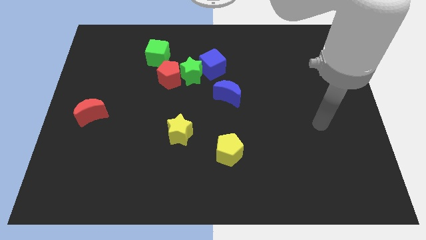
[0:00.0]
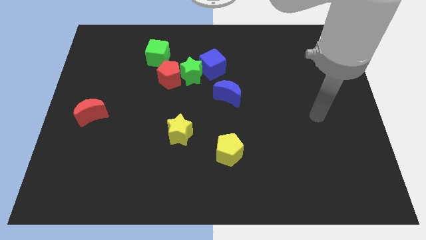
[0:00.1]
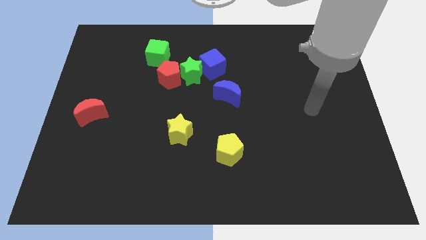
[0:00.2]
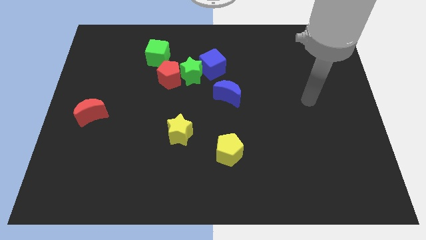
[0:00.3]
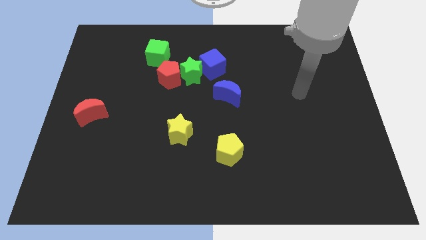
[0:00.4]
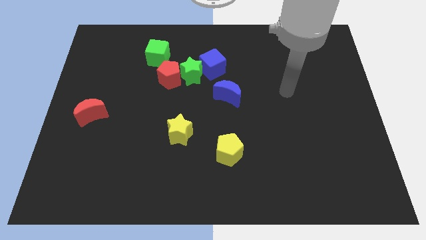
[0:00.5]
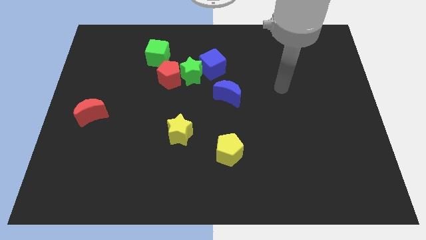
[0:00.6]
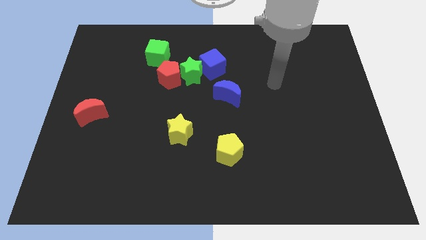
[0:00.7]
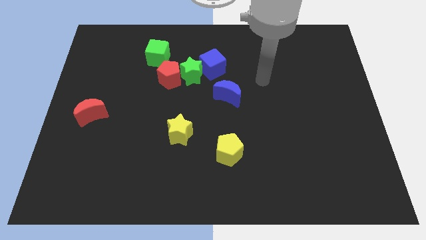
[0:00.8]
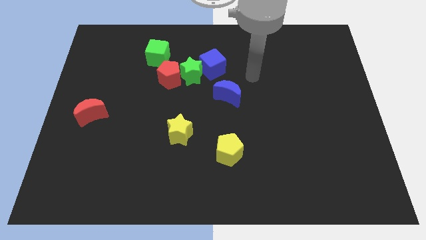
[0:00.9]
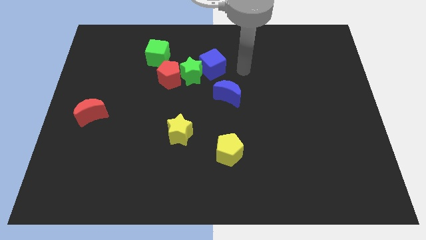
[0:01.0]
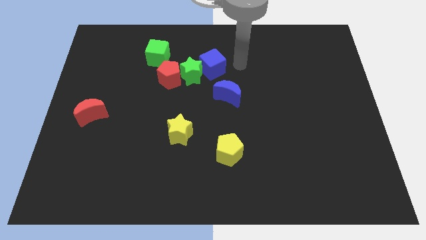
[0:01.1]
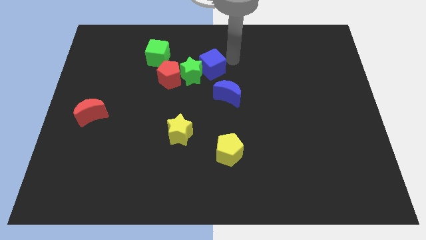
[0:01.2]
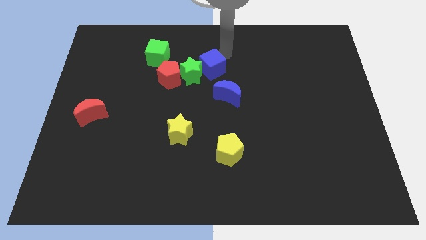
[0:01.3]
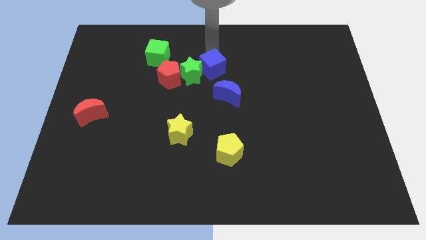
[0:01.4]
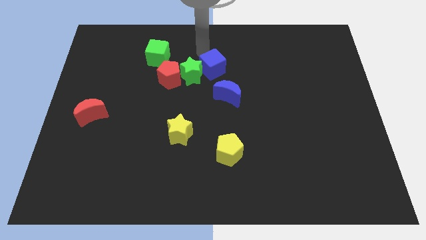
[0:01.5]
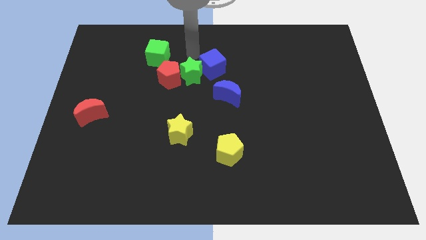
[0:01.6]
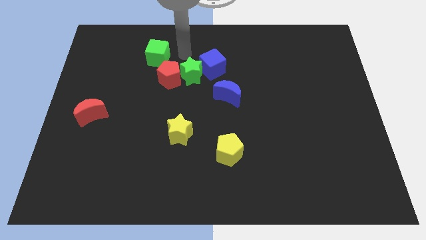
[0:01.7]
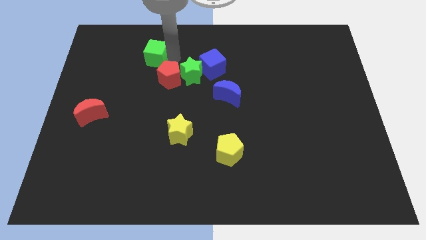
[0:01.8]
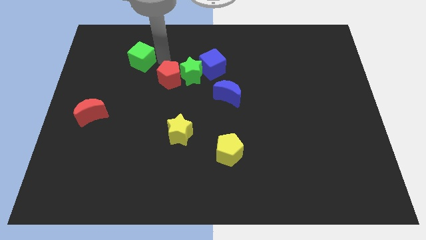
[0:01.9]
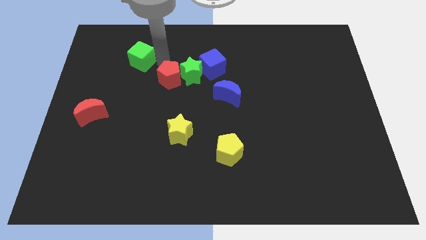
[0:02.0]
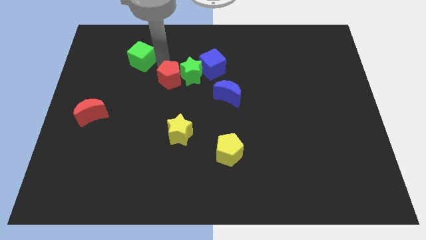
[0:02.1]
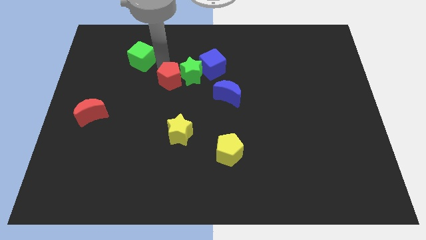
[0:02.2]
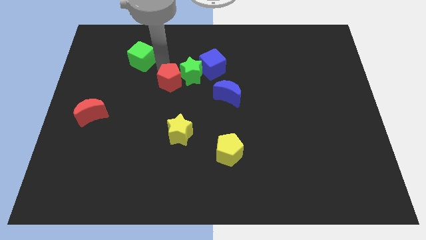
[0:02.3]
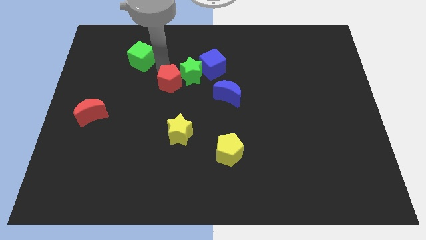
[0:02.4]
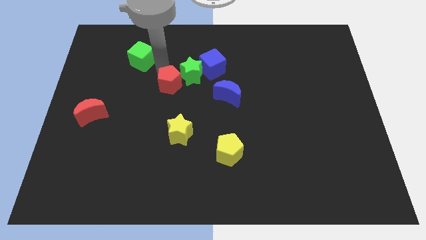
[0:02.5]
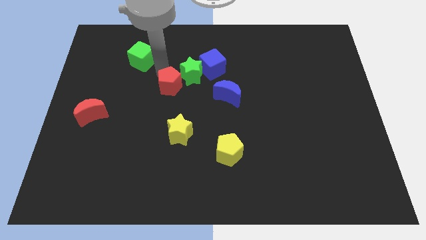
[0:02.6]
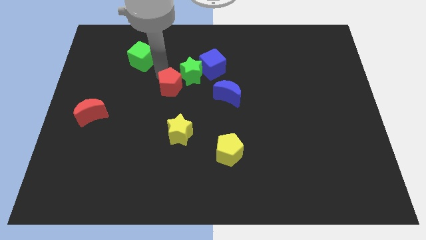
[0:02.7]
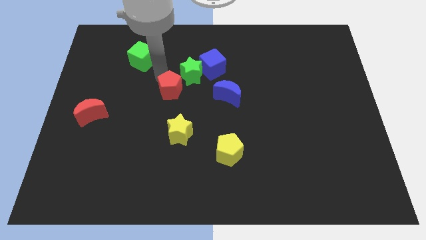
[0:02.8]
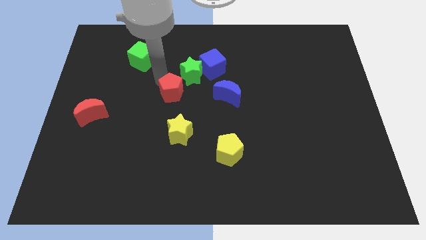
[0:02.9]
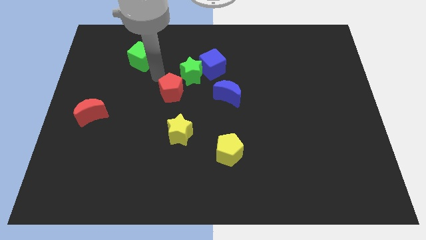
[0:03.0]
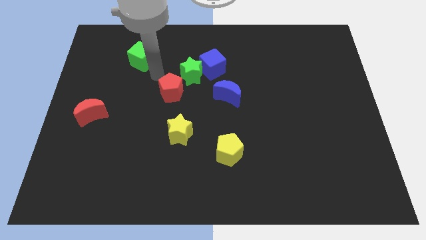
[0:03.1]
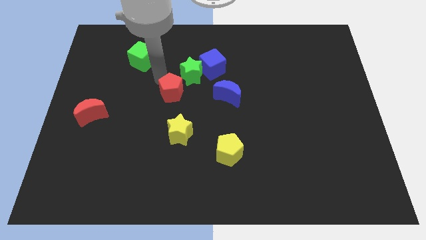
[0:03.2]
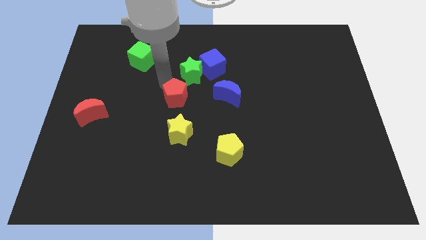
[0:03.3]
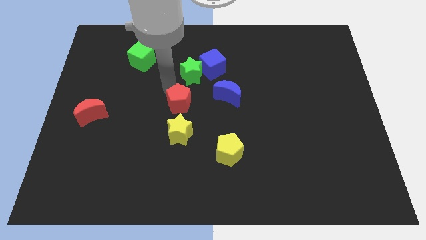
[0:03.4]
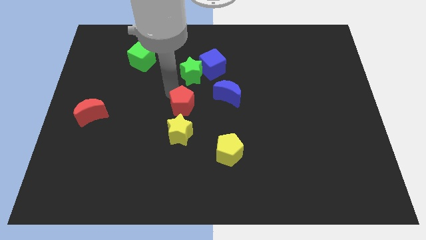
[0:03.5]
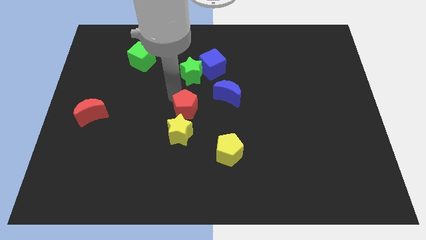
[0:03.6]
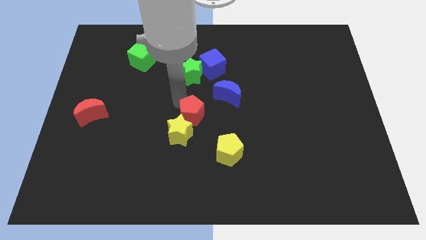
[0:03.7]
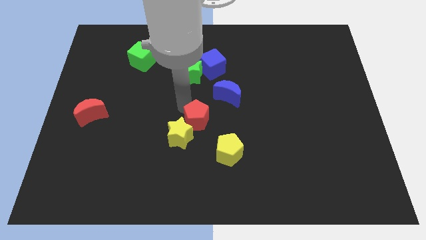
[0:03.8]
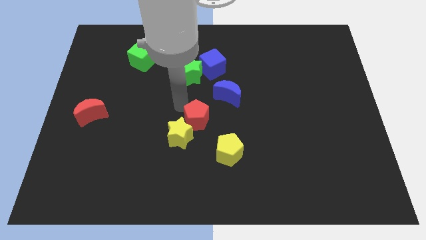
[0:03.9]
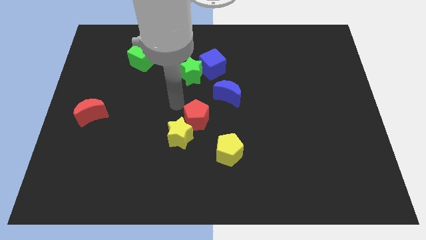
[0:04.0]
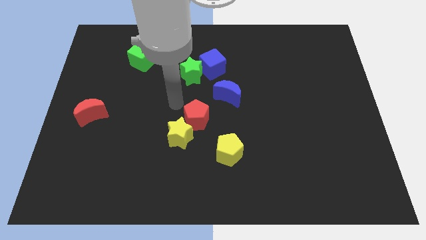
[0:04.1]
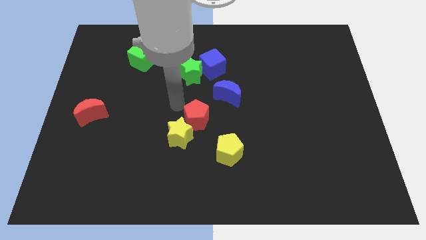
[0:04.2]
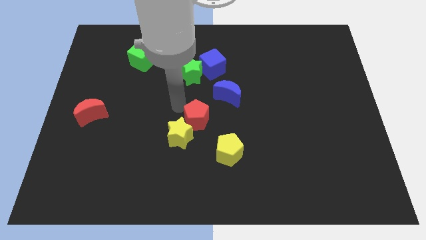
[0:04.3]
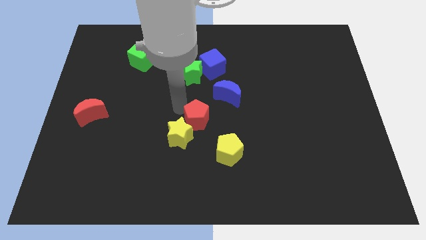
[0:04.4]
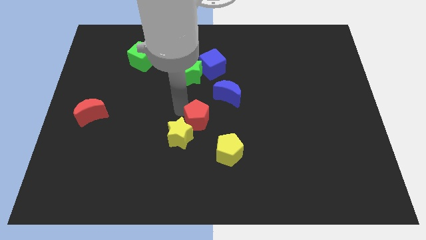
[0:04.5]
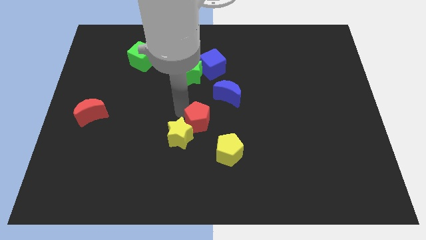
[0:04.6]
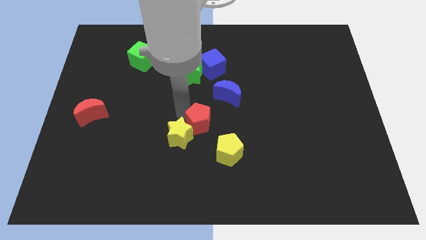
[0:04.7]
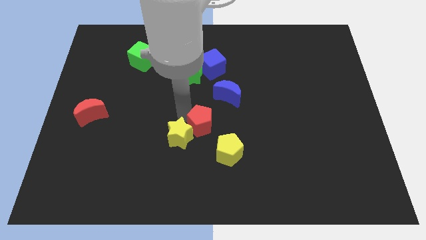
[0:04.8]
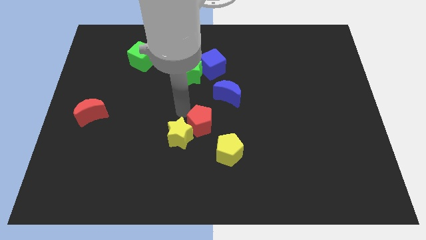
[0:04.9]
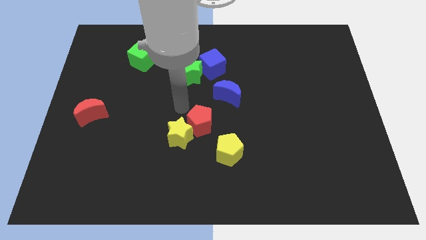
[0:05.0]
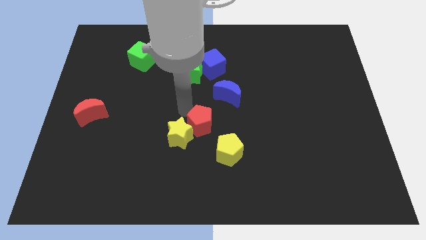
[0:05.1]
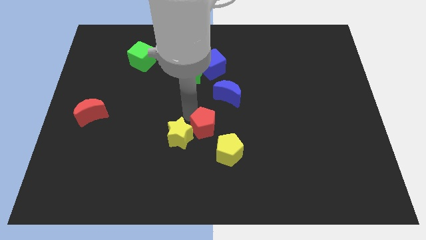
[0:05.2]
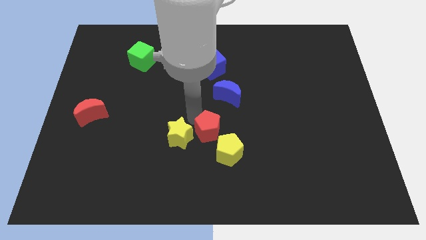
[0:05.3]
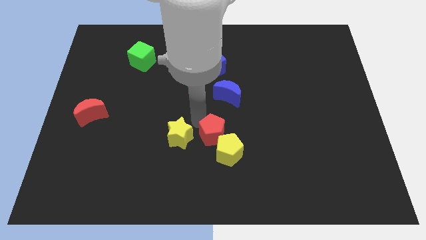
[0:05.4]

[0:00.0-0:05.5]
push the red pentagon towards the yellow pentagon

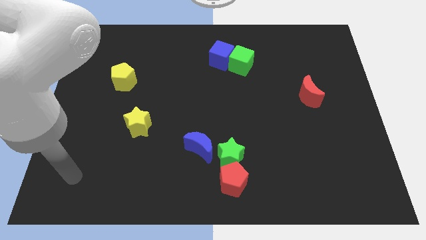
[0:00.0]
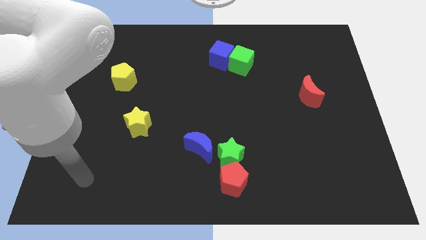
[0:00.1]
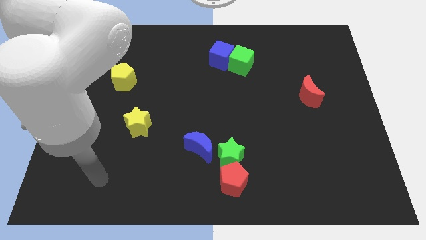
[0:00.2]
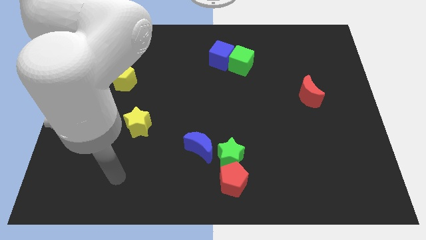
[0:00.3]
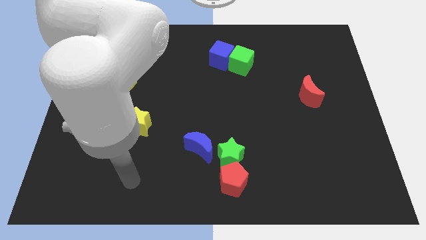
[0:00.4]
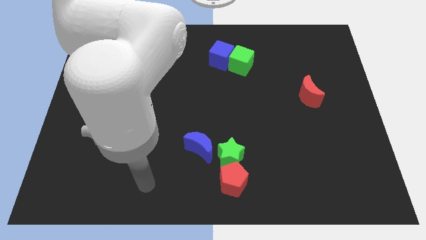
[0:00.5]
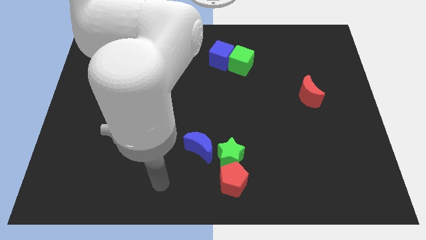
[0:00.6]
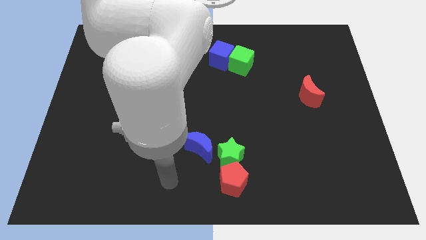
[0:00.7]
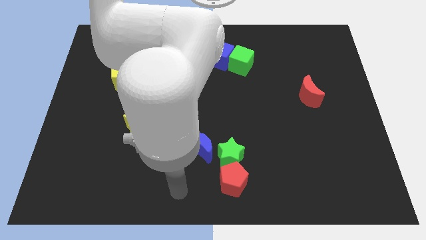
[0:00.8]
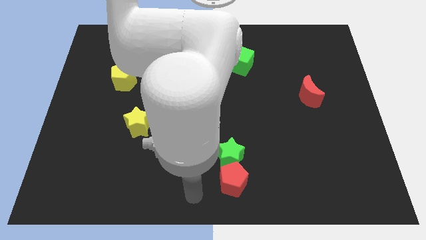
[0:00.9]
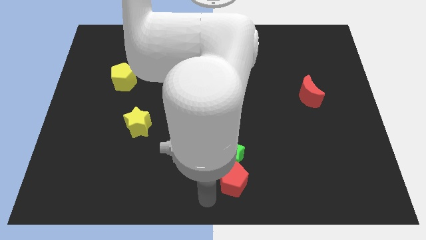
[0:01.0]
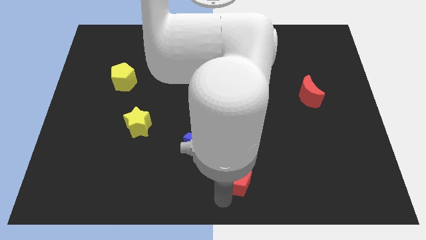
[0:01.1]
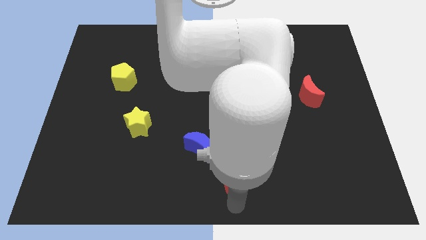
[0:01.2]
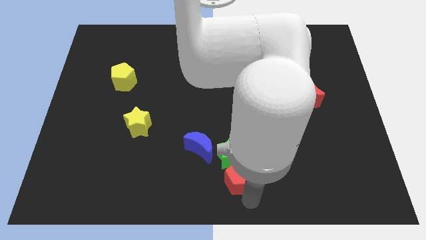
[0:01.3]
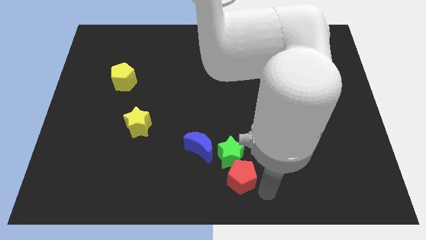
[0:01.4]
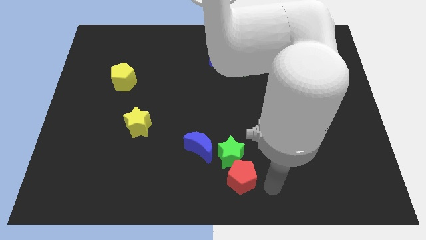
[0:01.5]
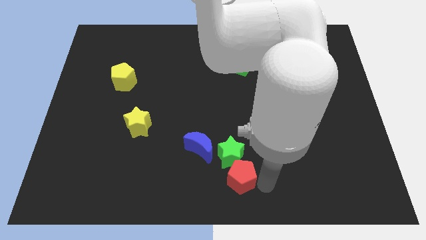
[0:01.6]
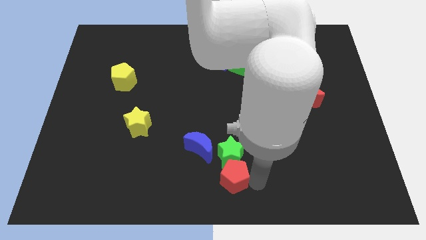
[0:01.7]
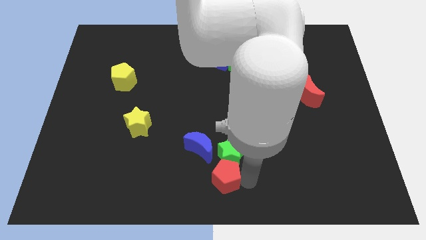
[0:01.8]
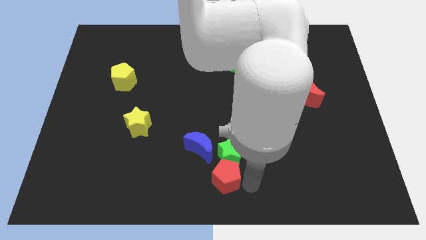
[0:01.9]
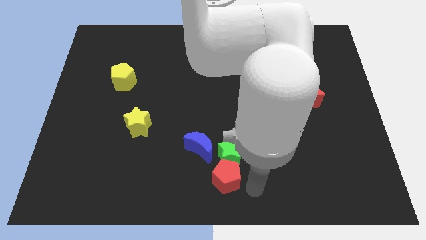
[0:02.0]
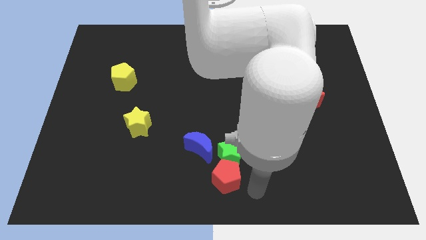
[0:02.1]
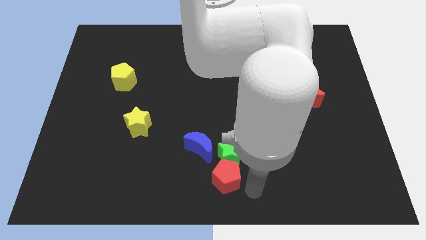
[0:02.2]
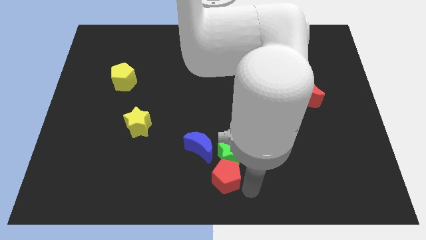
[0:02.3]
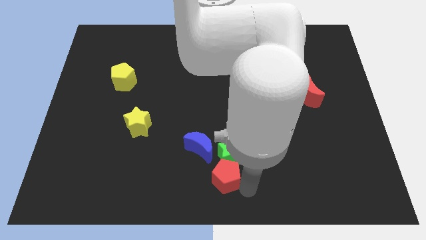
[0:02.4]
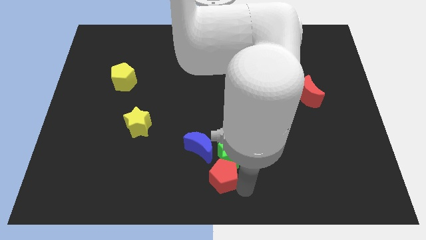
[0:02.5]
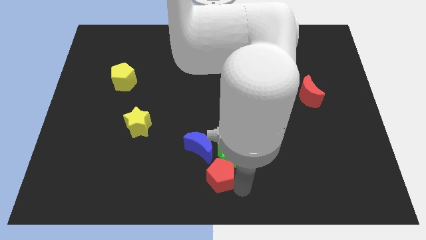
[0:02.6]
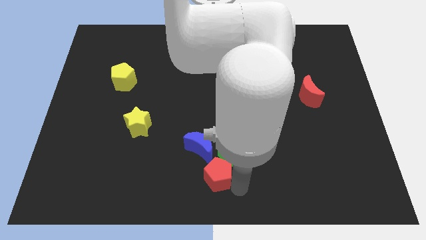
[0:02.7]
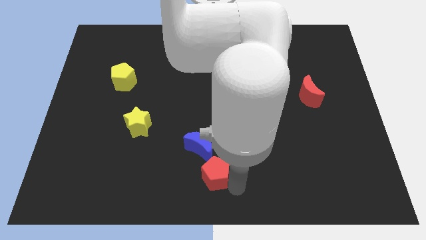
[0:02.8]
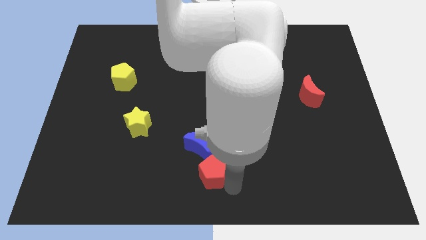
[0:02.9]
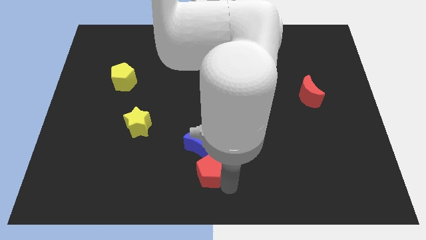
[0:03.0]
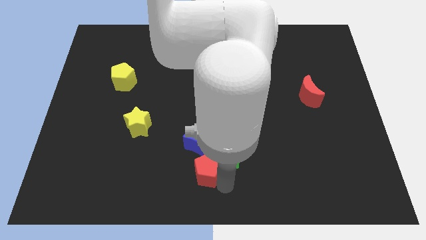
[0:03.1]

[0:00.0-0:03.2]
slide the red pentagon to the blue moon
